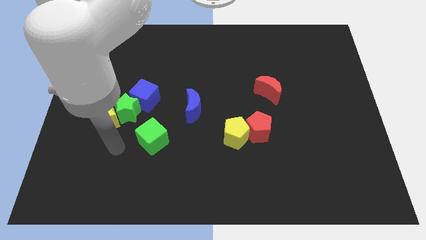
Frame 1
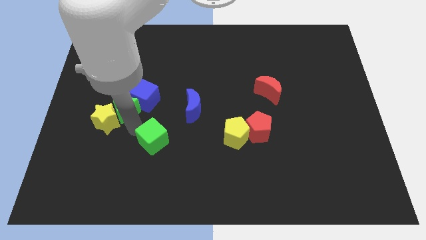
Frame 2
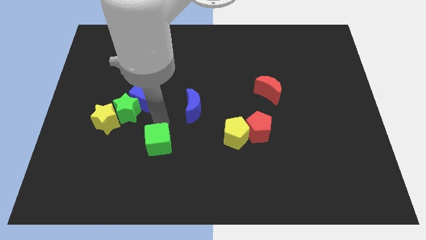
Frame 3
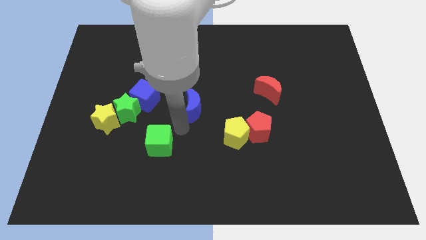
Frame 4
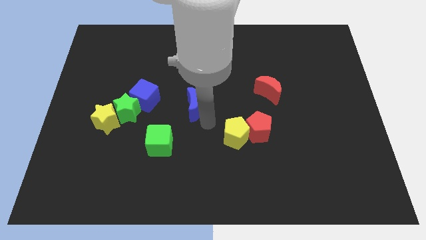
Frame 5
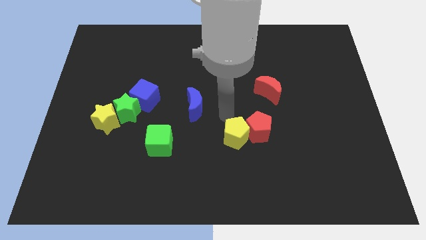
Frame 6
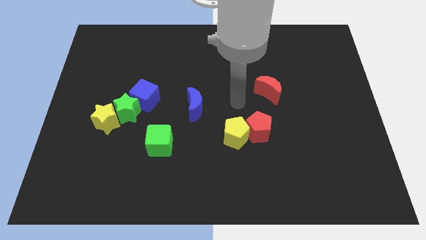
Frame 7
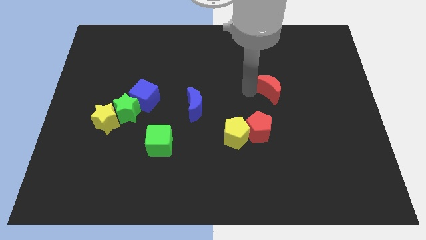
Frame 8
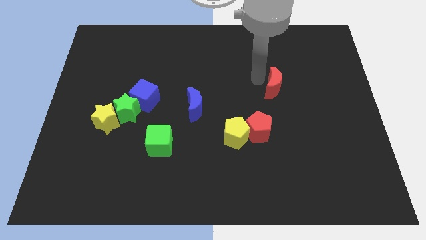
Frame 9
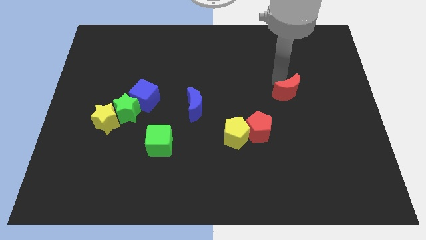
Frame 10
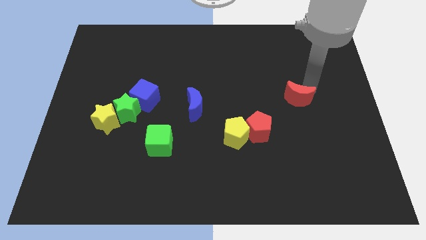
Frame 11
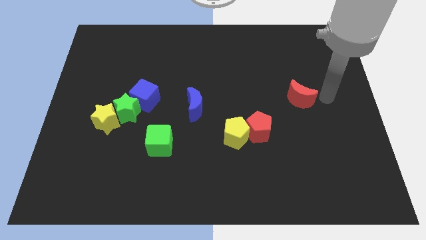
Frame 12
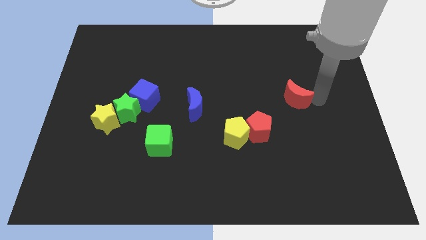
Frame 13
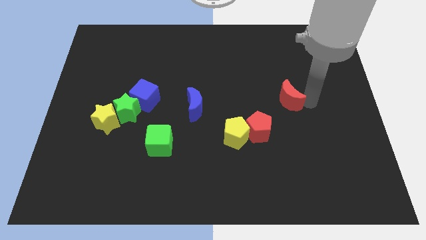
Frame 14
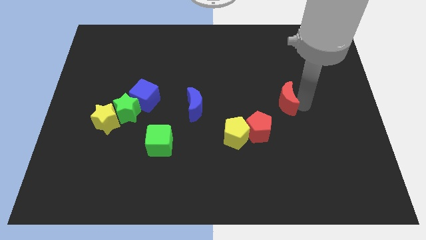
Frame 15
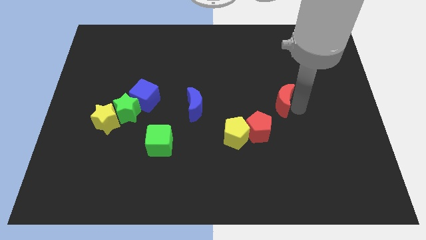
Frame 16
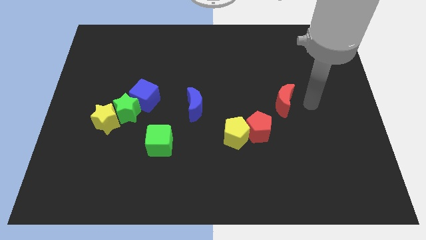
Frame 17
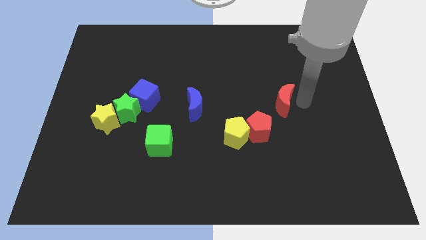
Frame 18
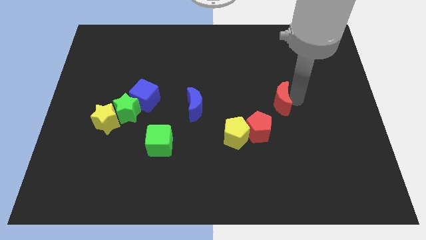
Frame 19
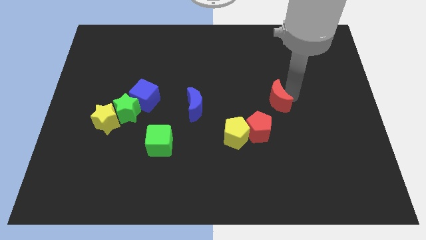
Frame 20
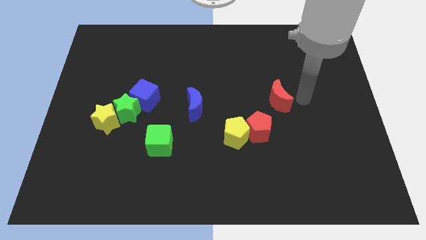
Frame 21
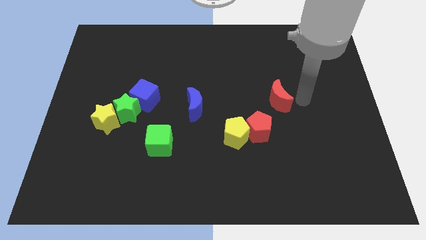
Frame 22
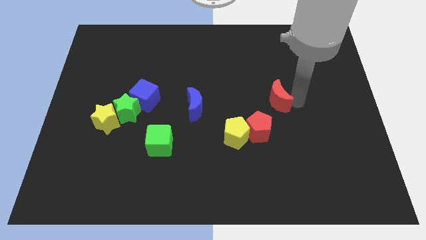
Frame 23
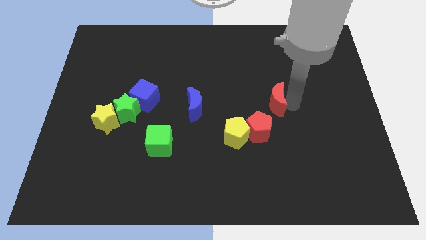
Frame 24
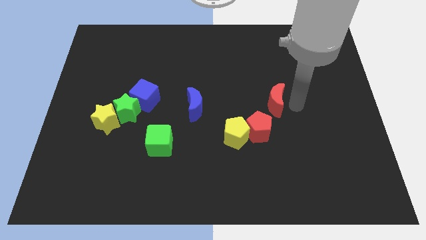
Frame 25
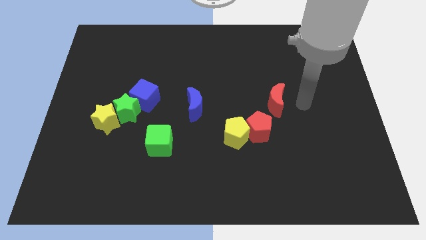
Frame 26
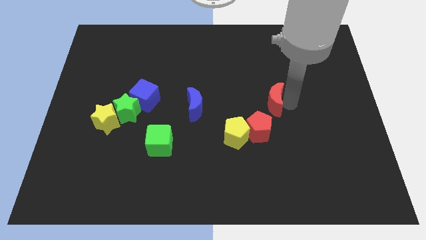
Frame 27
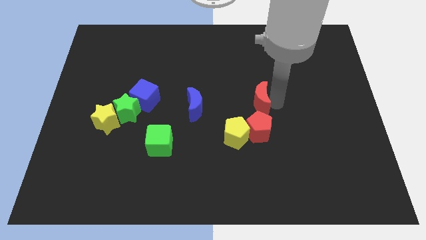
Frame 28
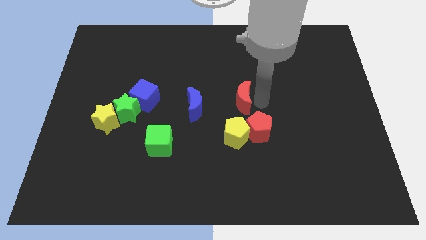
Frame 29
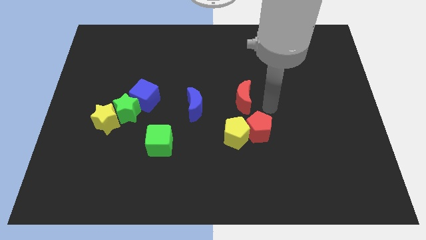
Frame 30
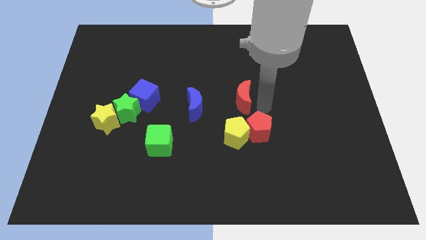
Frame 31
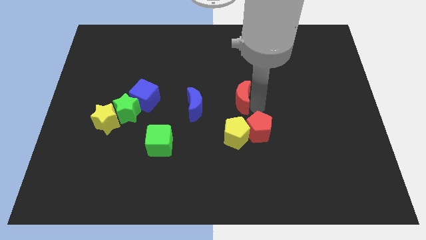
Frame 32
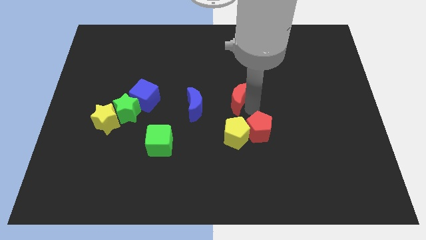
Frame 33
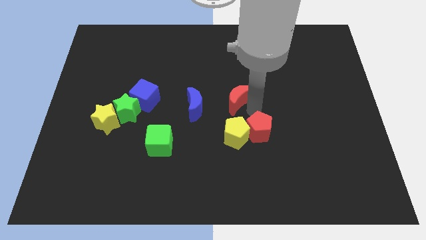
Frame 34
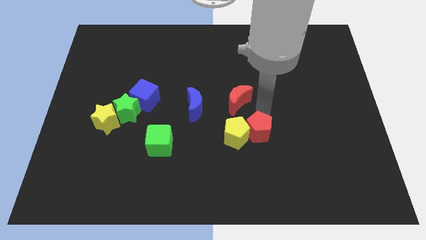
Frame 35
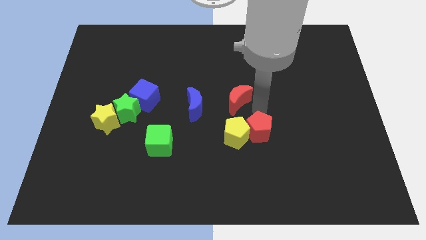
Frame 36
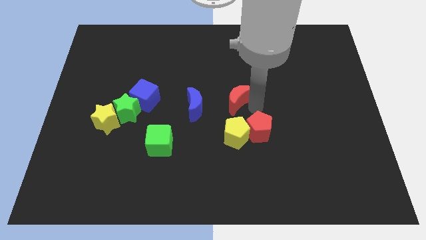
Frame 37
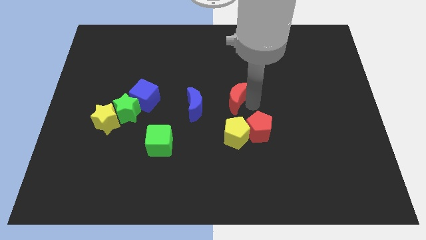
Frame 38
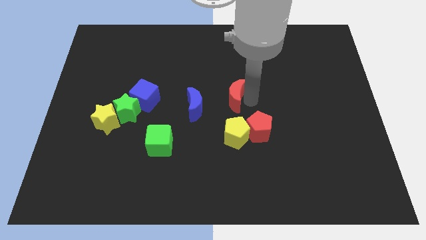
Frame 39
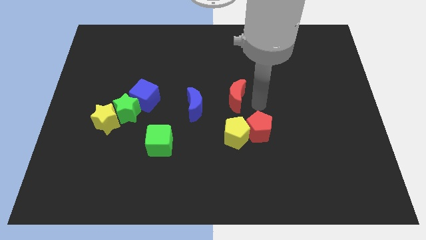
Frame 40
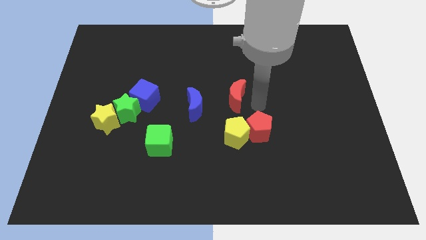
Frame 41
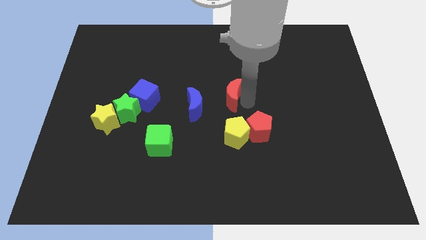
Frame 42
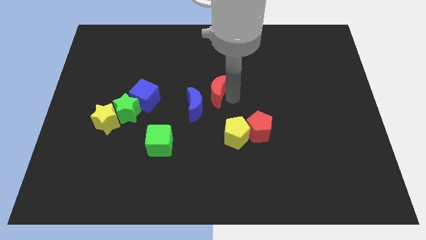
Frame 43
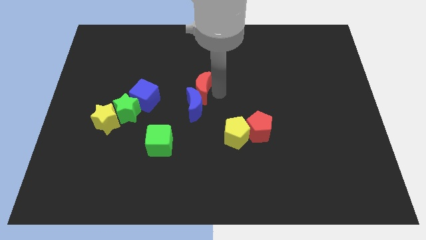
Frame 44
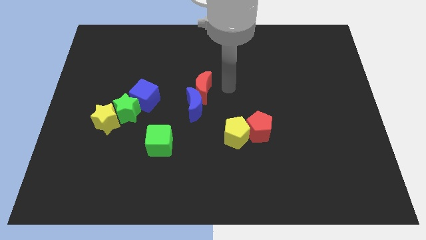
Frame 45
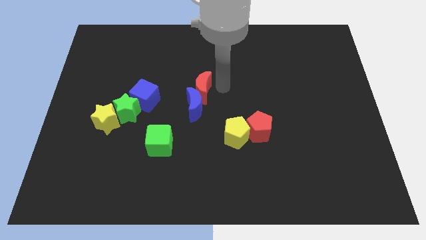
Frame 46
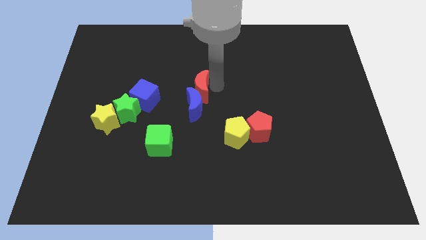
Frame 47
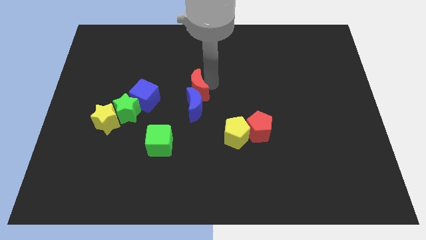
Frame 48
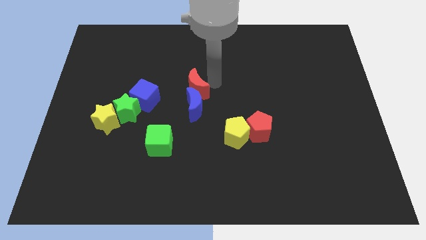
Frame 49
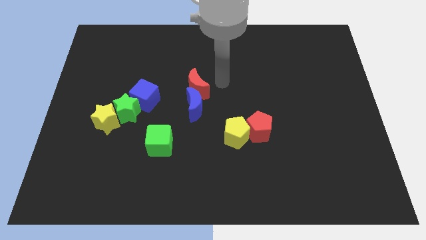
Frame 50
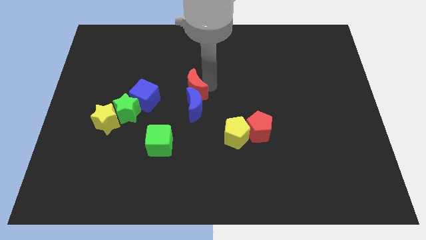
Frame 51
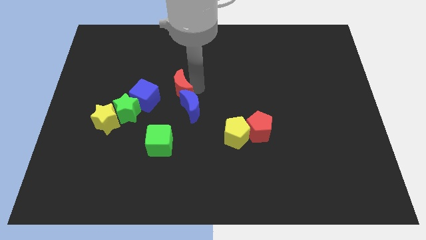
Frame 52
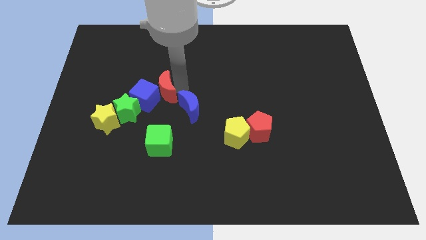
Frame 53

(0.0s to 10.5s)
slide the red moon towards the blue cube

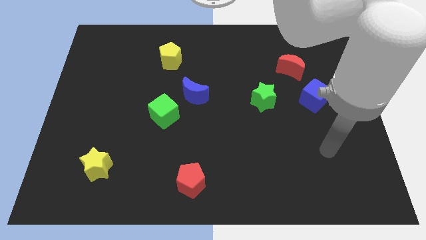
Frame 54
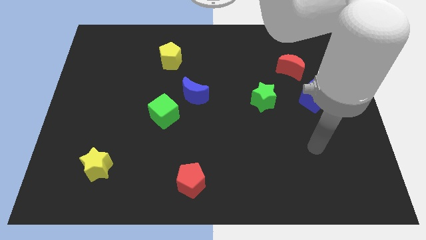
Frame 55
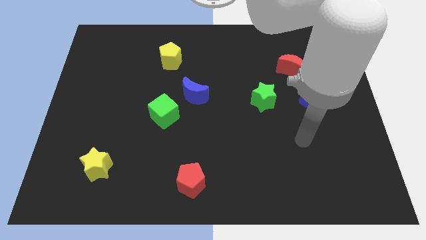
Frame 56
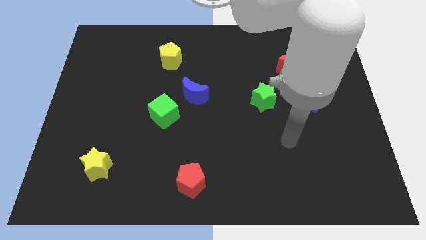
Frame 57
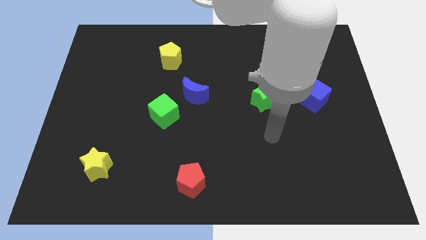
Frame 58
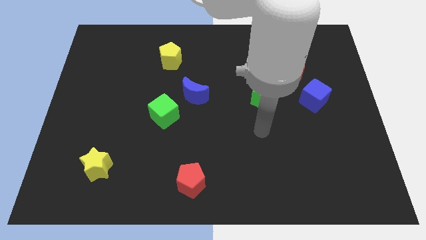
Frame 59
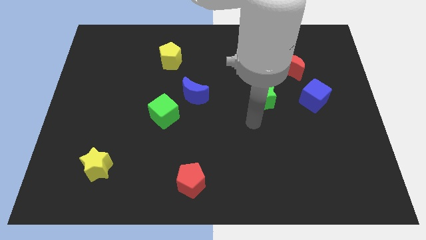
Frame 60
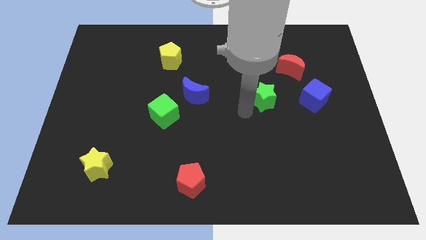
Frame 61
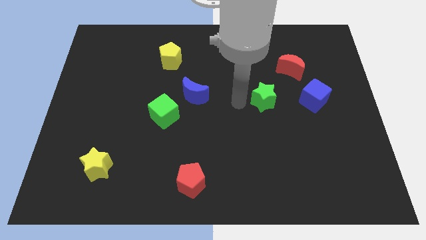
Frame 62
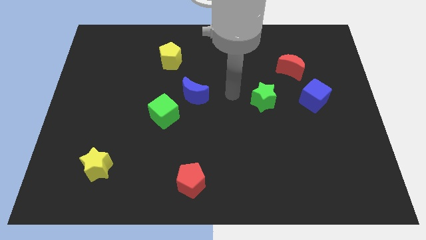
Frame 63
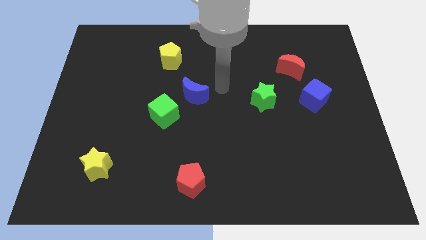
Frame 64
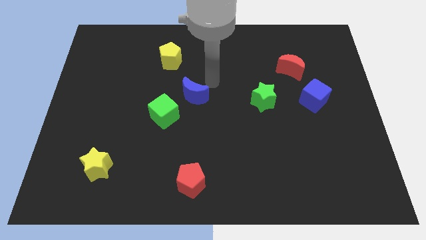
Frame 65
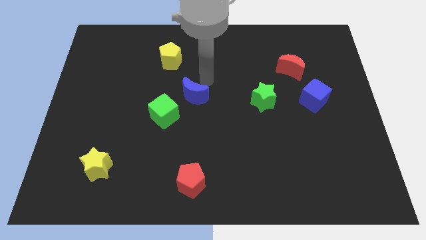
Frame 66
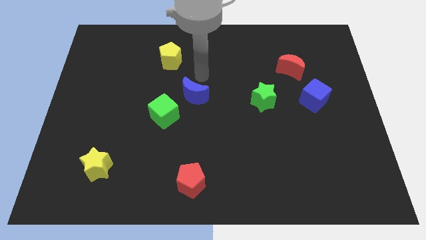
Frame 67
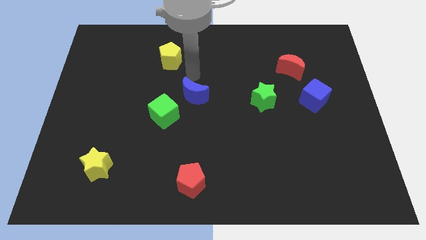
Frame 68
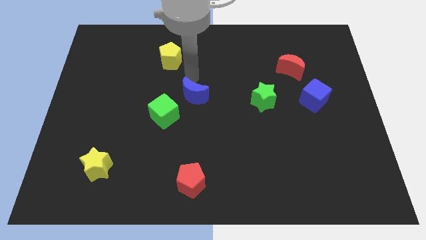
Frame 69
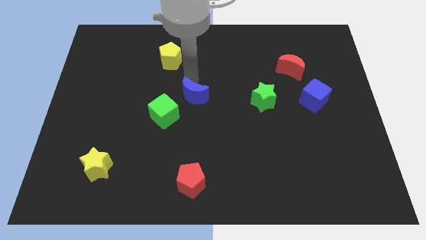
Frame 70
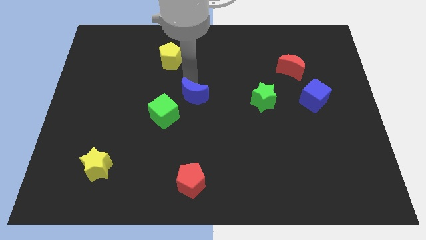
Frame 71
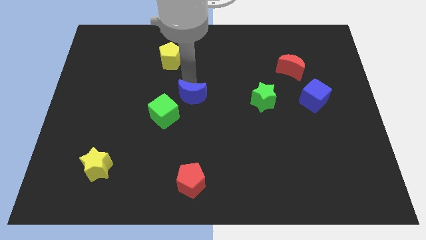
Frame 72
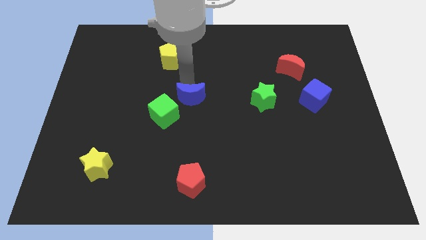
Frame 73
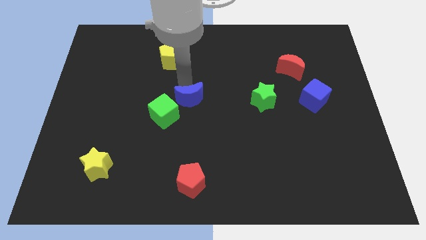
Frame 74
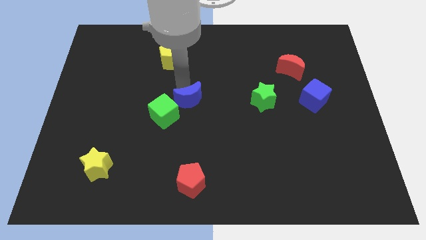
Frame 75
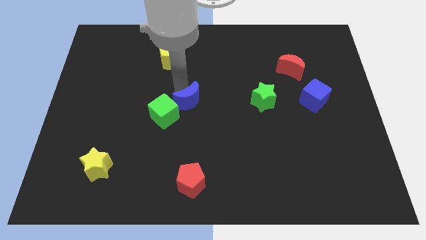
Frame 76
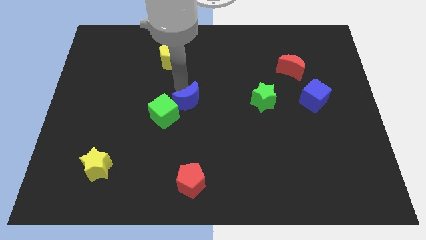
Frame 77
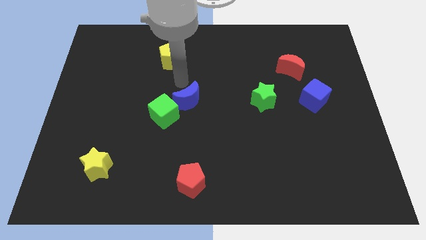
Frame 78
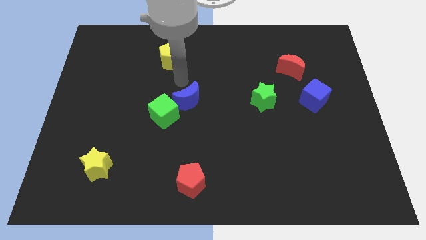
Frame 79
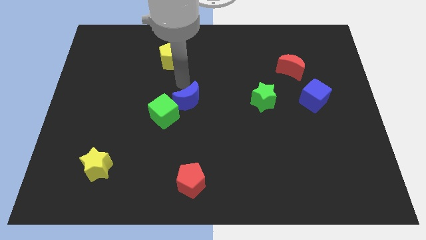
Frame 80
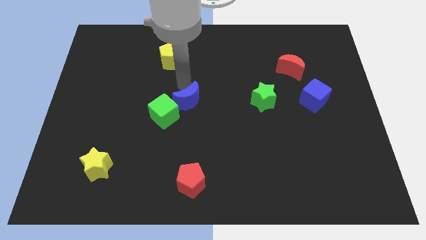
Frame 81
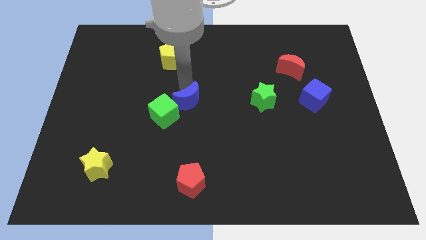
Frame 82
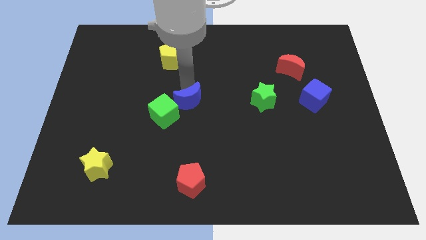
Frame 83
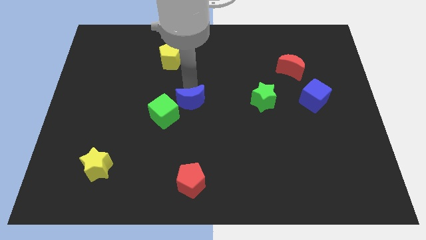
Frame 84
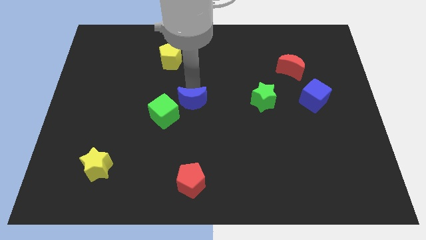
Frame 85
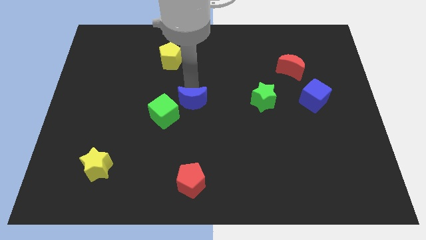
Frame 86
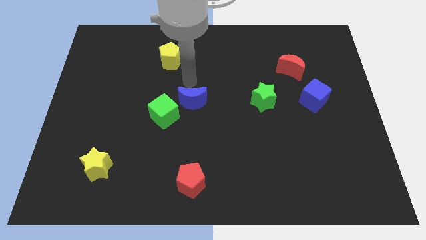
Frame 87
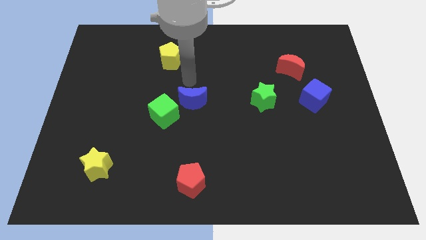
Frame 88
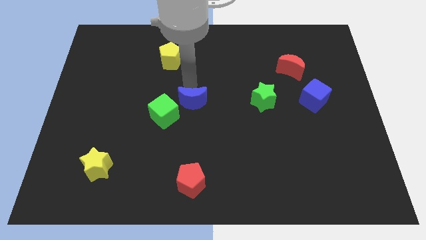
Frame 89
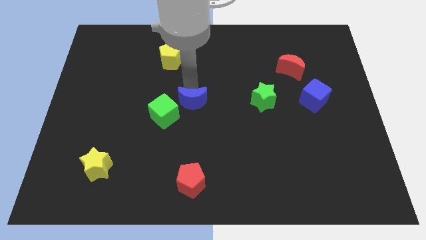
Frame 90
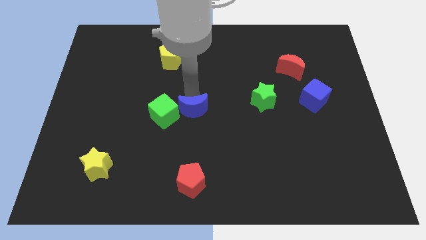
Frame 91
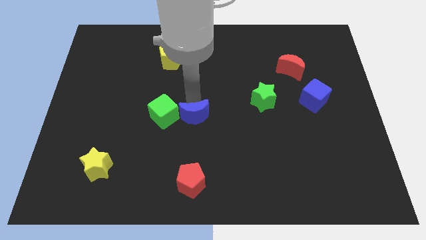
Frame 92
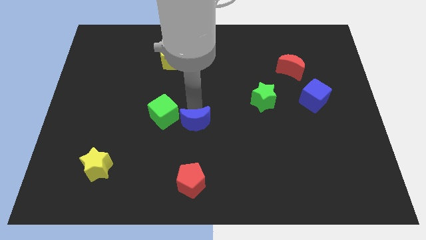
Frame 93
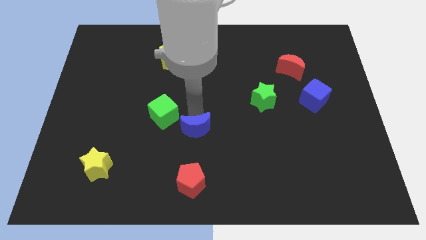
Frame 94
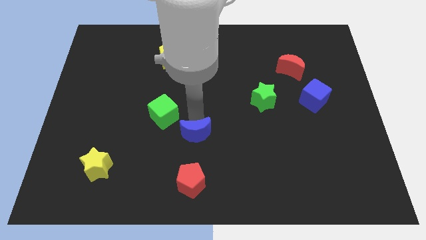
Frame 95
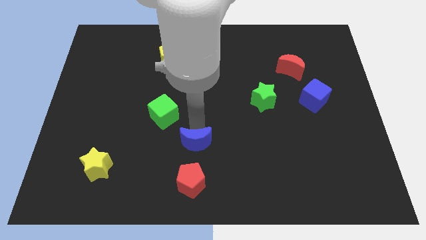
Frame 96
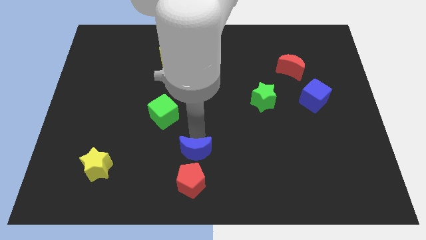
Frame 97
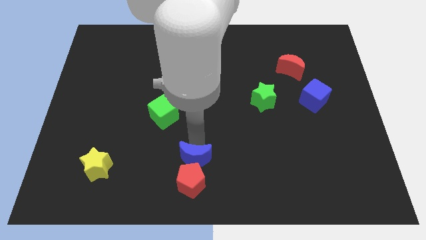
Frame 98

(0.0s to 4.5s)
move the blue moon to the red pentagon
